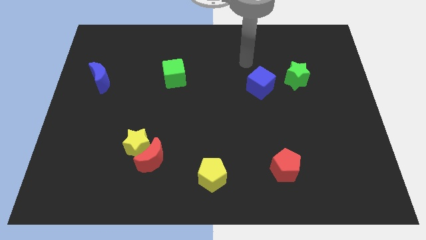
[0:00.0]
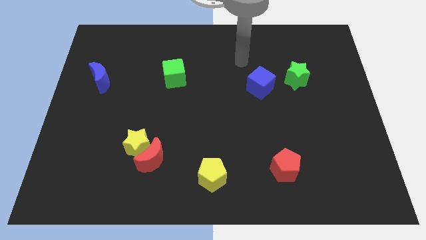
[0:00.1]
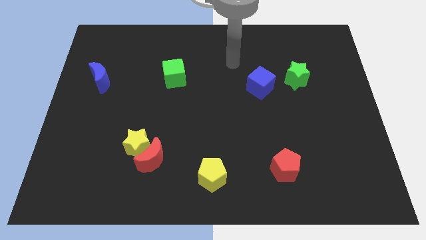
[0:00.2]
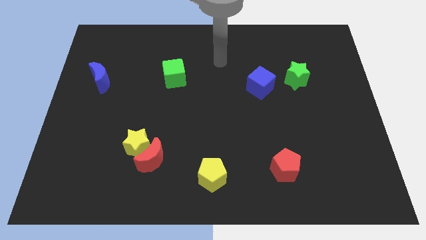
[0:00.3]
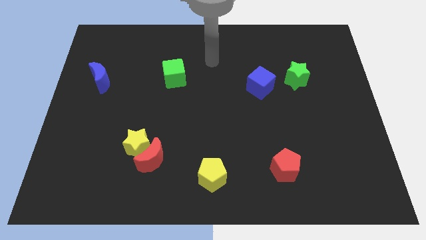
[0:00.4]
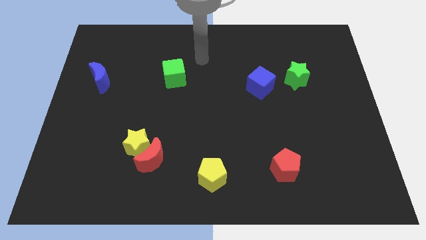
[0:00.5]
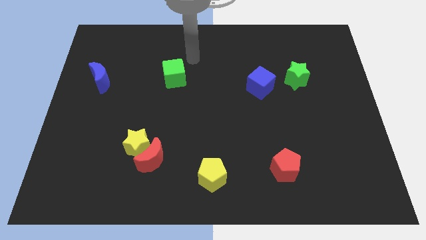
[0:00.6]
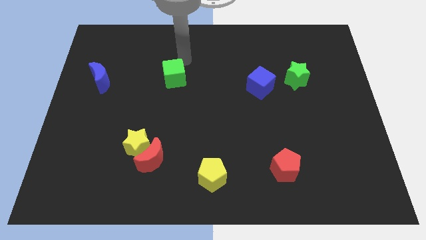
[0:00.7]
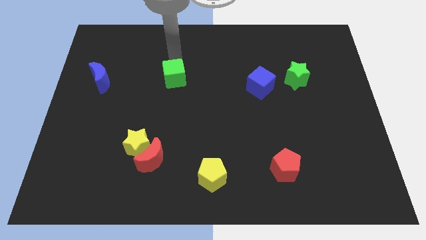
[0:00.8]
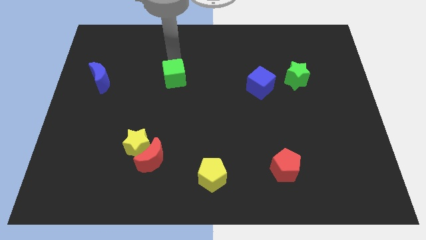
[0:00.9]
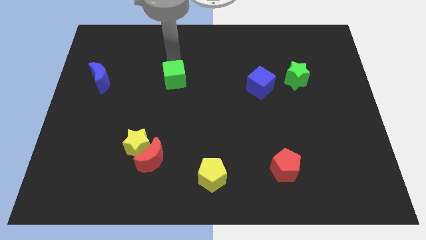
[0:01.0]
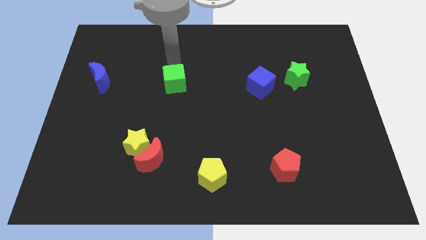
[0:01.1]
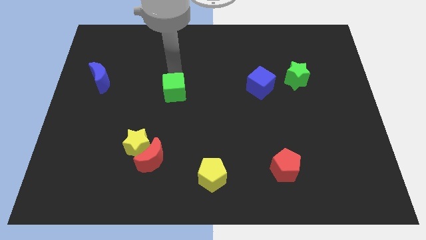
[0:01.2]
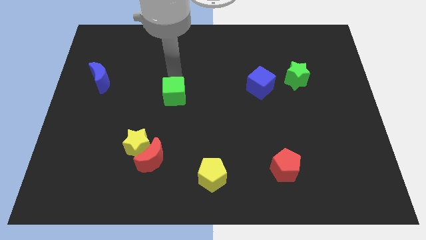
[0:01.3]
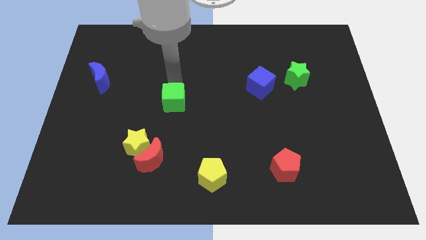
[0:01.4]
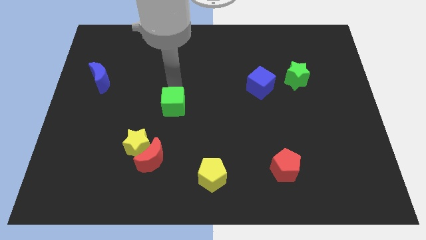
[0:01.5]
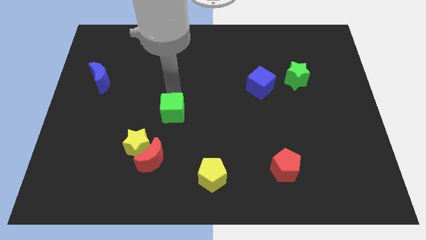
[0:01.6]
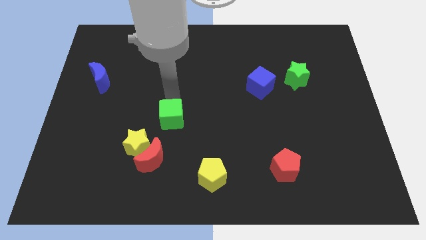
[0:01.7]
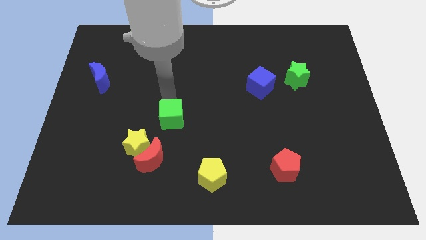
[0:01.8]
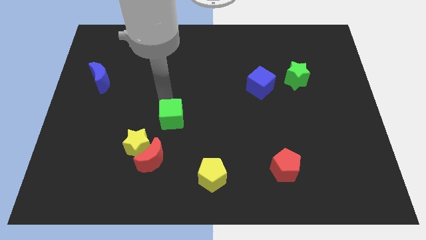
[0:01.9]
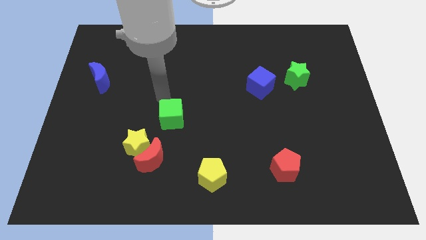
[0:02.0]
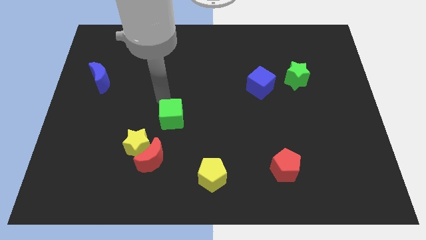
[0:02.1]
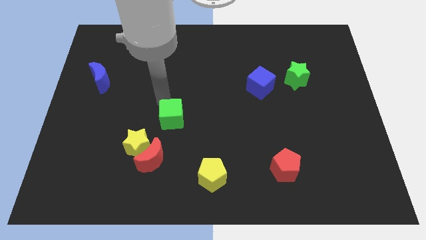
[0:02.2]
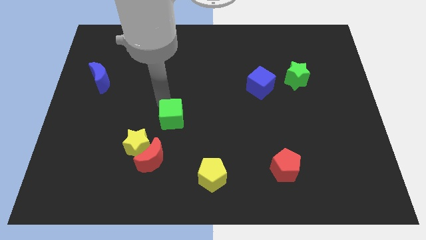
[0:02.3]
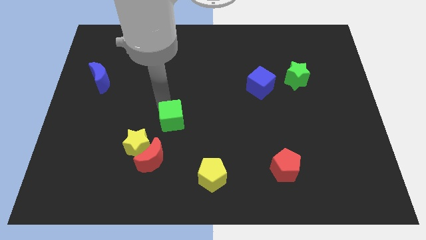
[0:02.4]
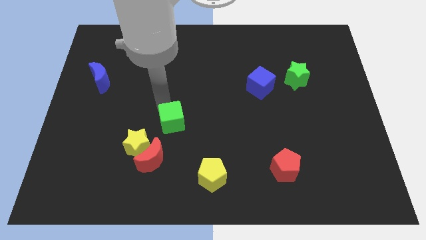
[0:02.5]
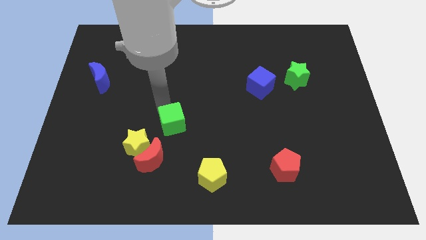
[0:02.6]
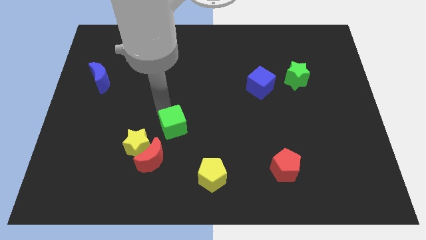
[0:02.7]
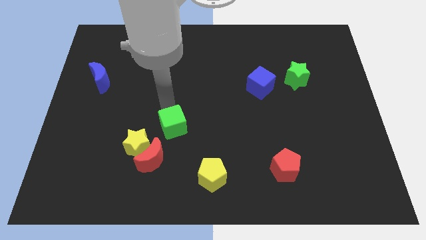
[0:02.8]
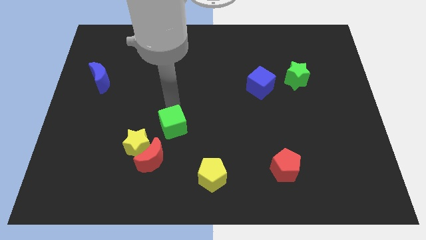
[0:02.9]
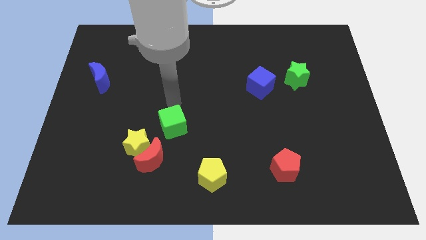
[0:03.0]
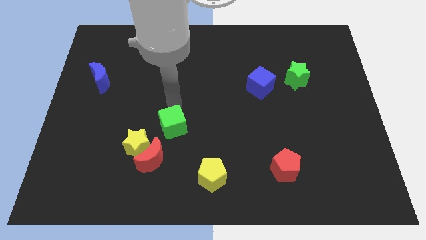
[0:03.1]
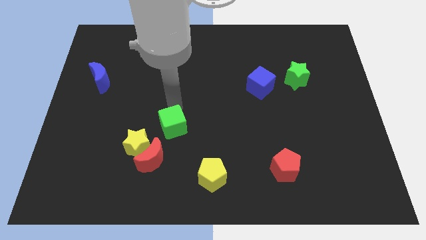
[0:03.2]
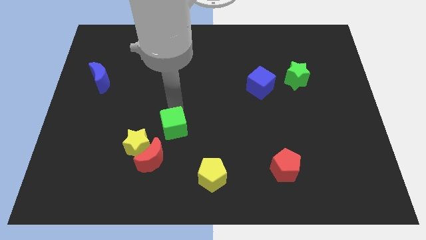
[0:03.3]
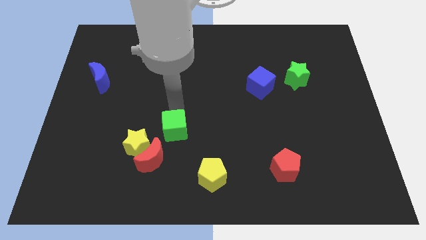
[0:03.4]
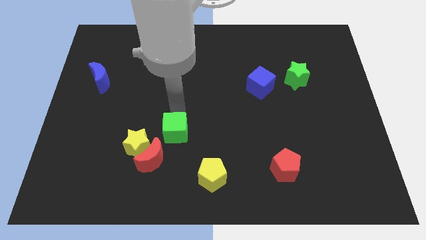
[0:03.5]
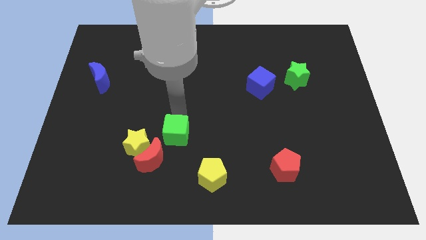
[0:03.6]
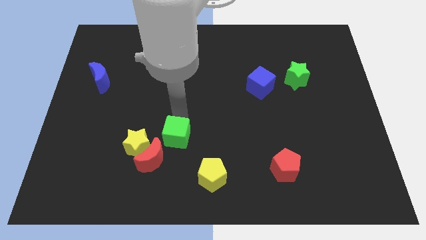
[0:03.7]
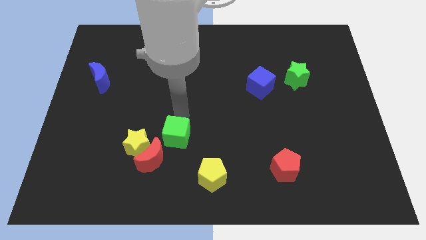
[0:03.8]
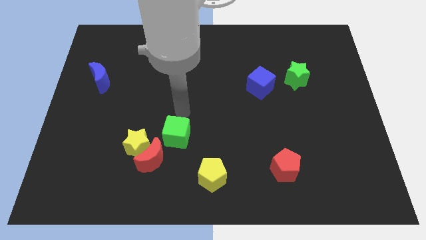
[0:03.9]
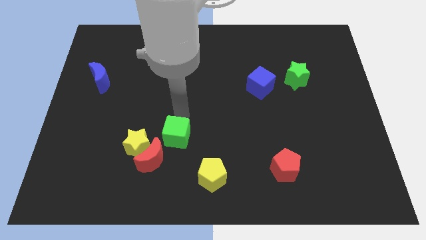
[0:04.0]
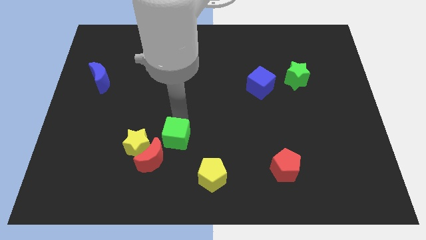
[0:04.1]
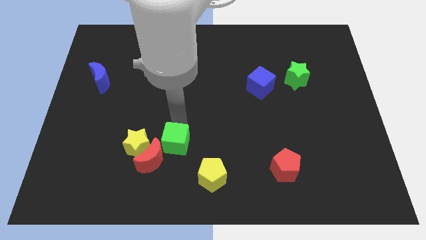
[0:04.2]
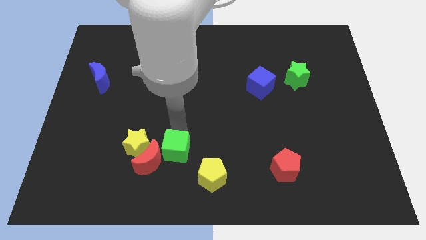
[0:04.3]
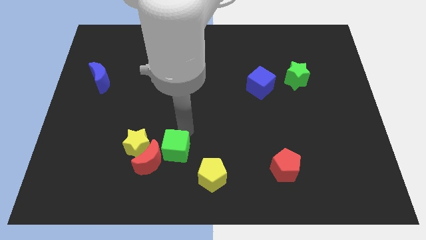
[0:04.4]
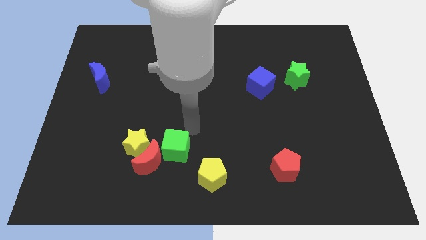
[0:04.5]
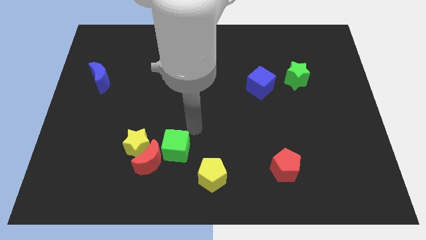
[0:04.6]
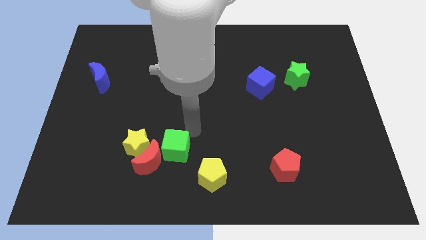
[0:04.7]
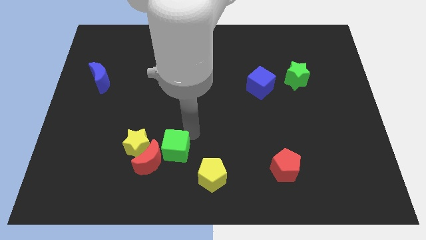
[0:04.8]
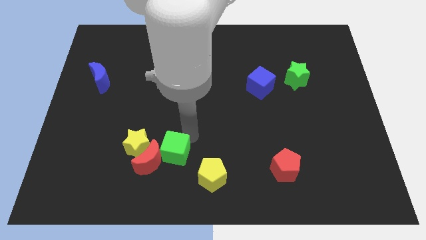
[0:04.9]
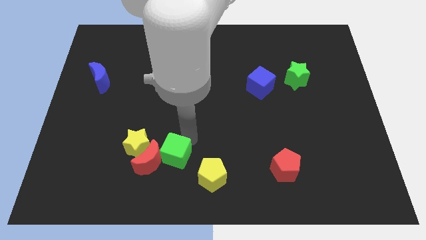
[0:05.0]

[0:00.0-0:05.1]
slide the green cube to the bottom right of the yellow star

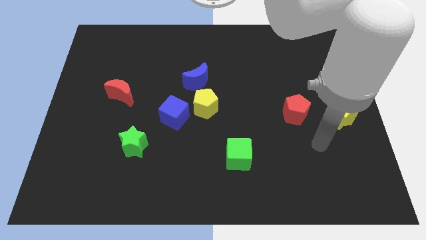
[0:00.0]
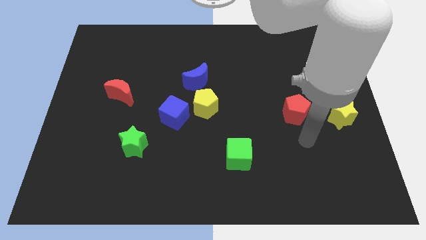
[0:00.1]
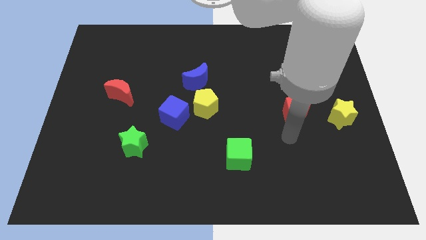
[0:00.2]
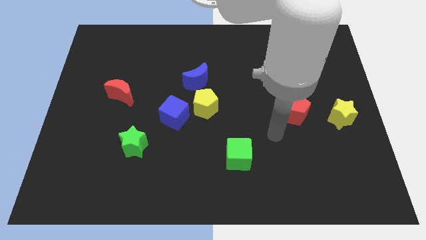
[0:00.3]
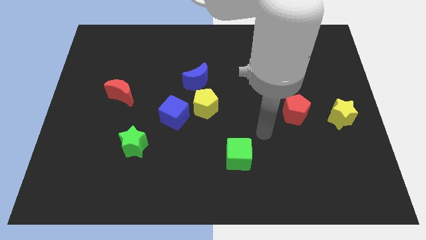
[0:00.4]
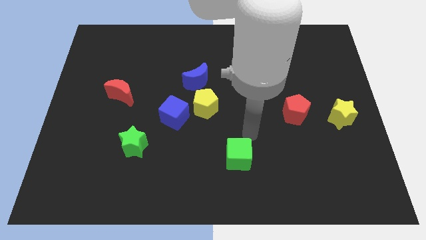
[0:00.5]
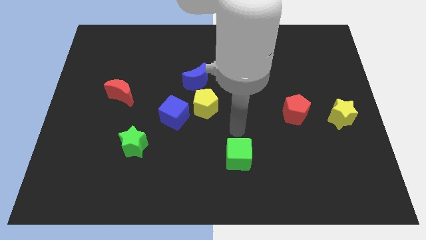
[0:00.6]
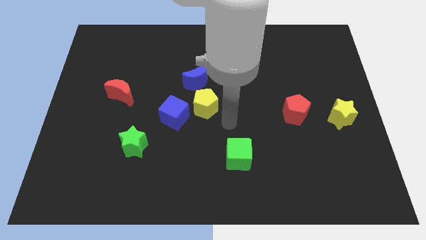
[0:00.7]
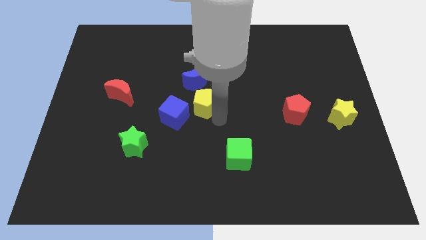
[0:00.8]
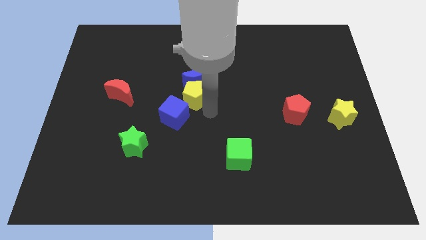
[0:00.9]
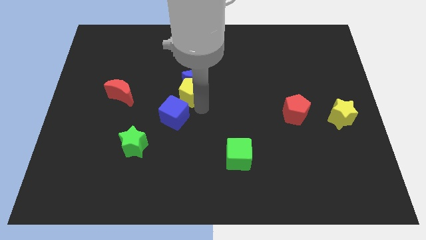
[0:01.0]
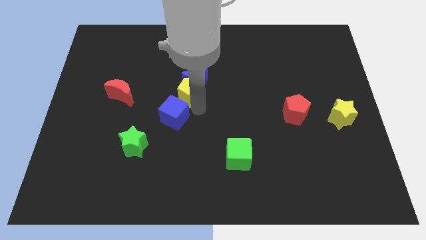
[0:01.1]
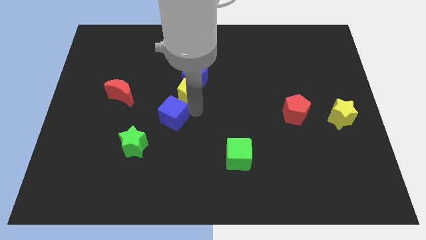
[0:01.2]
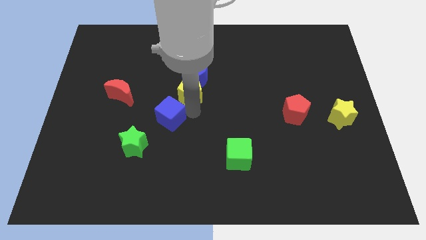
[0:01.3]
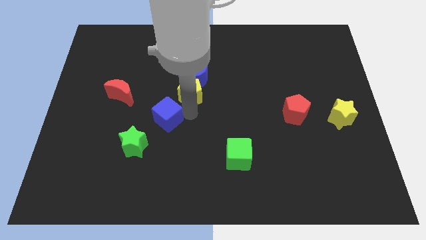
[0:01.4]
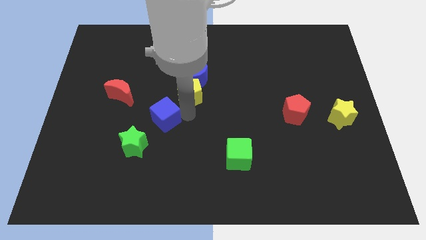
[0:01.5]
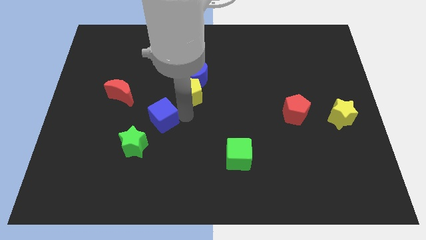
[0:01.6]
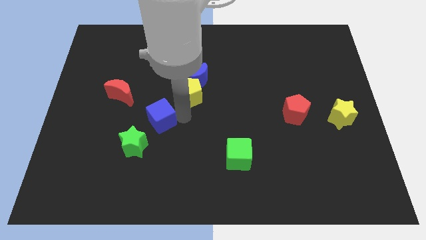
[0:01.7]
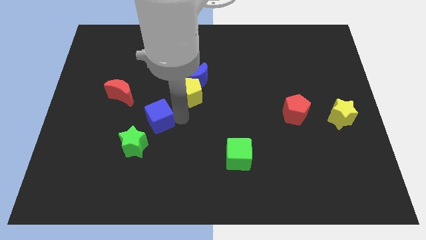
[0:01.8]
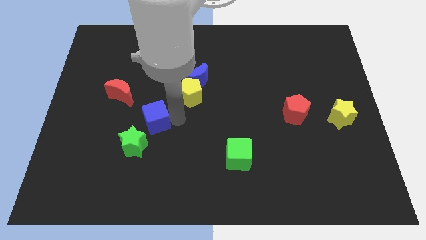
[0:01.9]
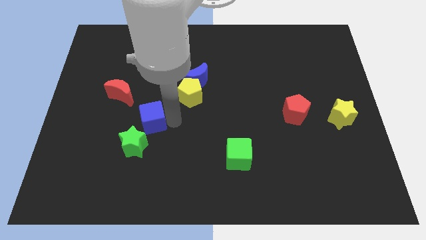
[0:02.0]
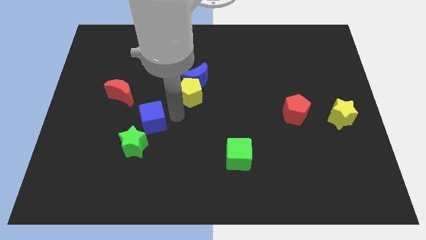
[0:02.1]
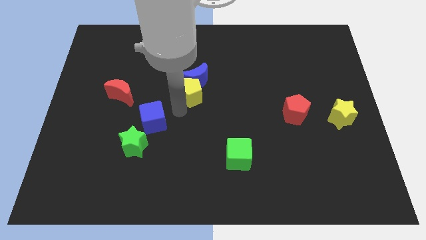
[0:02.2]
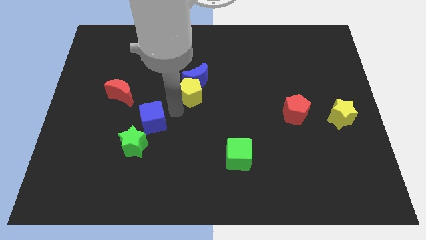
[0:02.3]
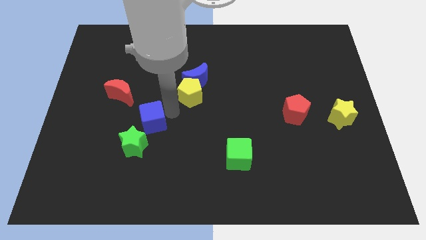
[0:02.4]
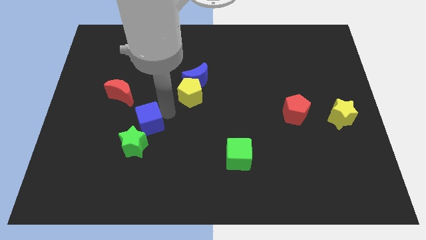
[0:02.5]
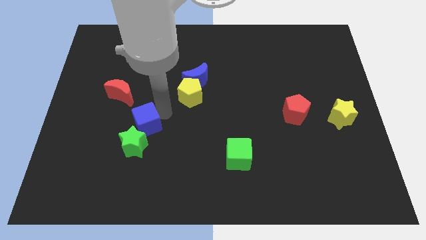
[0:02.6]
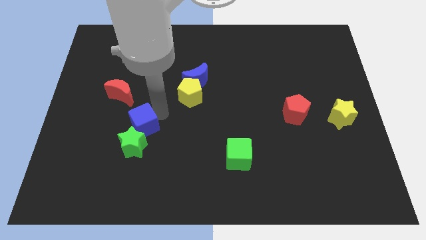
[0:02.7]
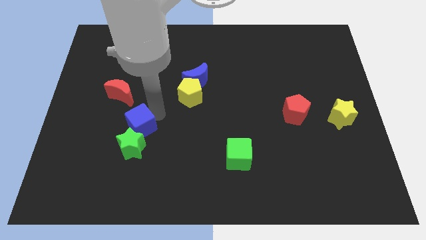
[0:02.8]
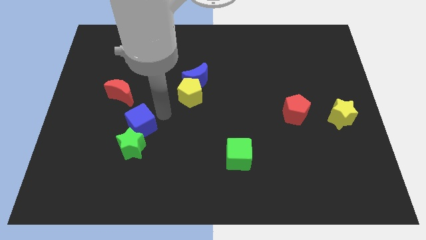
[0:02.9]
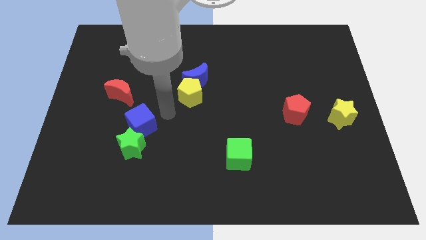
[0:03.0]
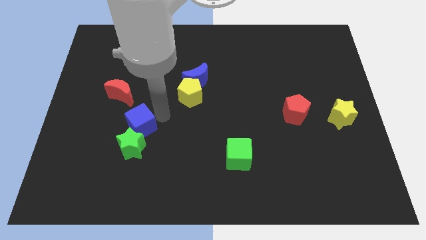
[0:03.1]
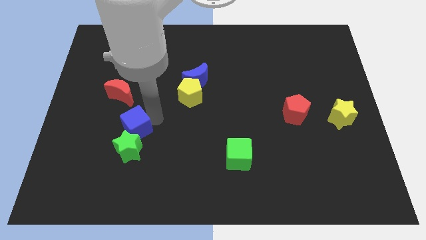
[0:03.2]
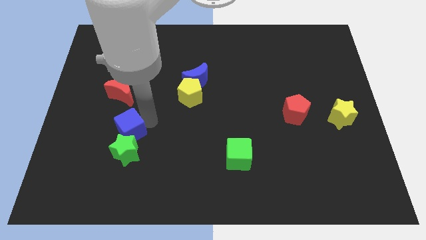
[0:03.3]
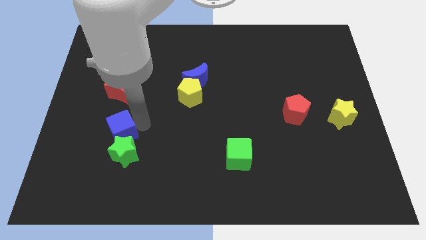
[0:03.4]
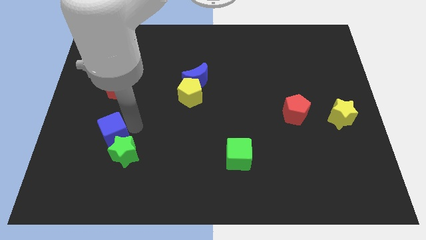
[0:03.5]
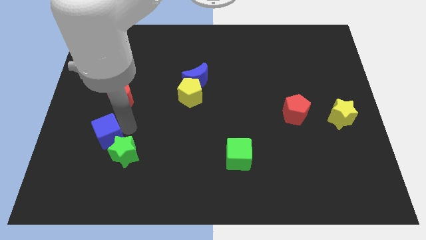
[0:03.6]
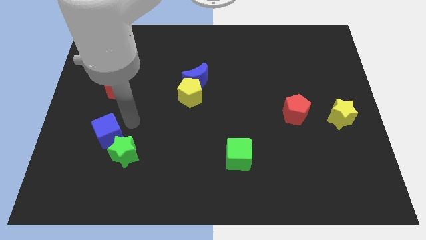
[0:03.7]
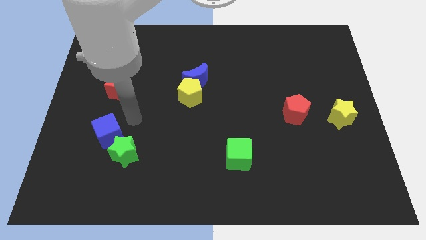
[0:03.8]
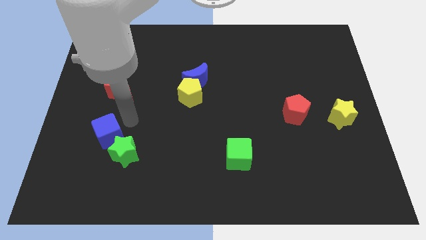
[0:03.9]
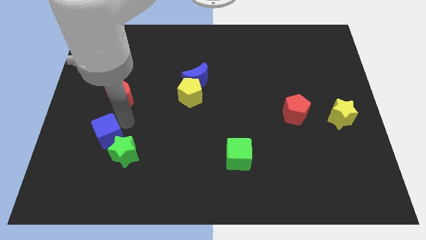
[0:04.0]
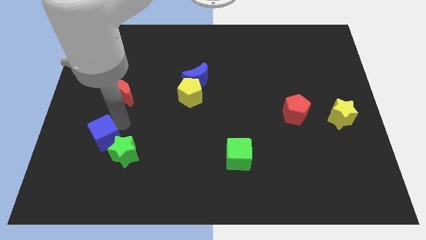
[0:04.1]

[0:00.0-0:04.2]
put the blue cube to the left of the green star
